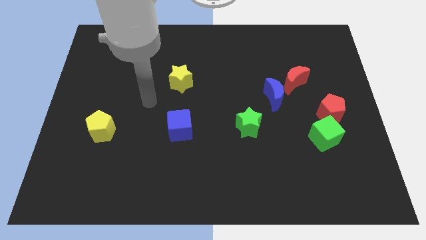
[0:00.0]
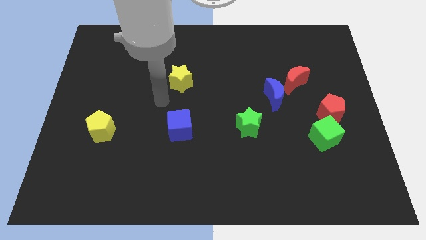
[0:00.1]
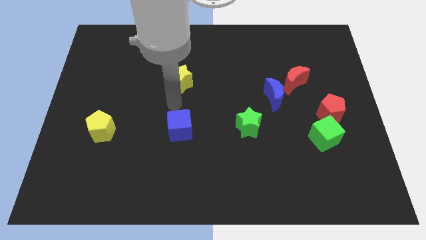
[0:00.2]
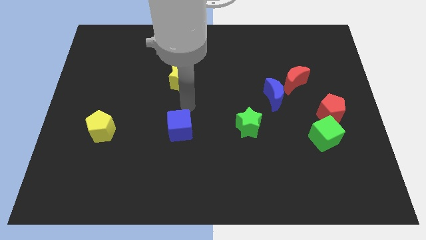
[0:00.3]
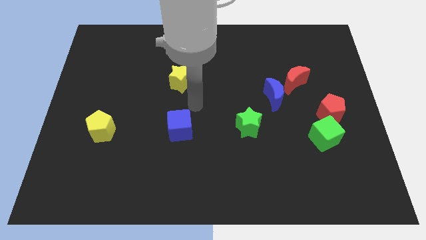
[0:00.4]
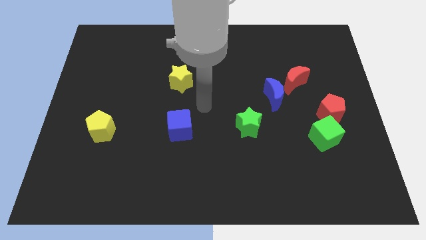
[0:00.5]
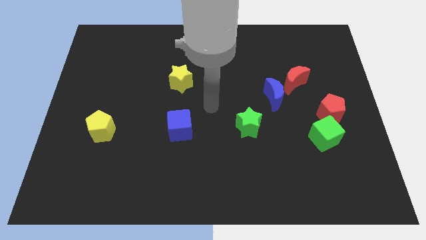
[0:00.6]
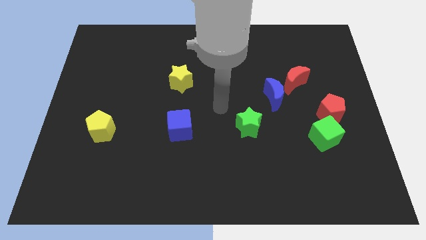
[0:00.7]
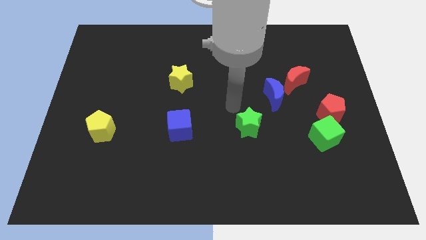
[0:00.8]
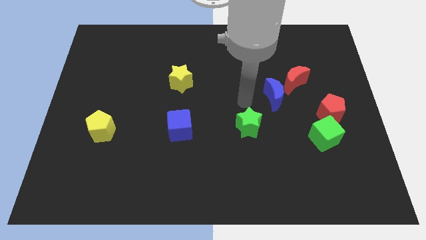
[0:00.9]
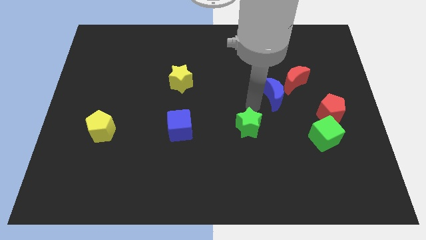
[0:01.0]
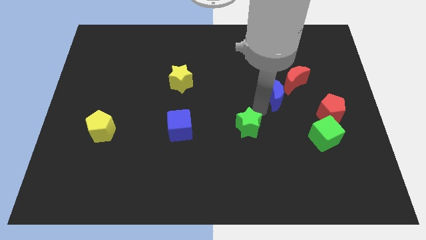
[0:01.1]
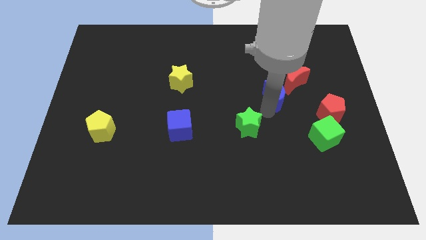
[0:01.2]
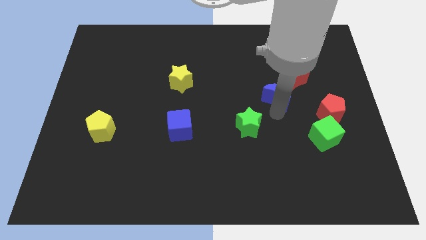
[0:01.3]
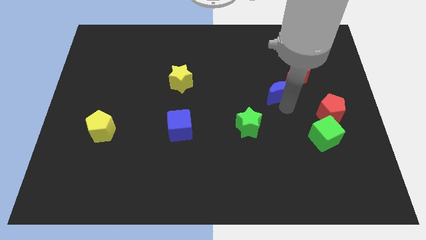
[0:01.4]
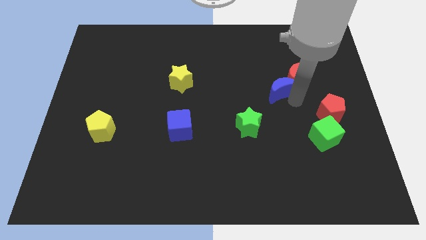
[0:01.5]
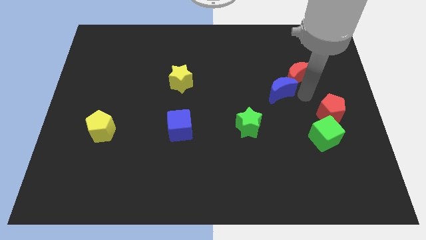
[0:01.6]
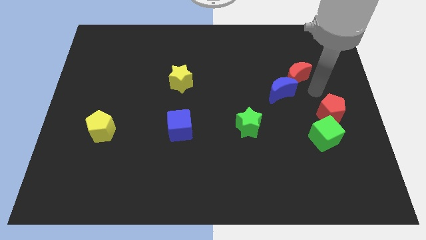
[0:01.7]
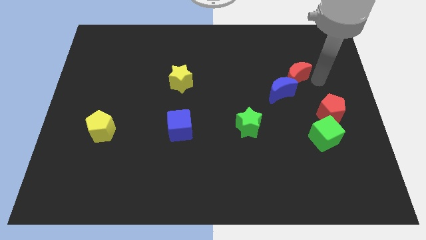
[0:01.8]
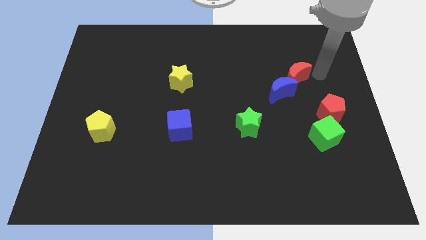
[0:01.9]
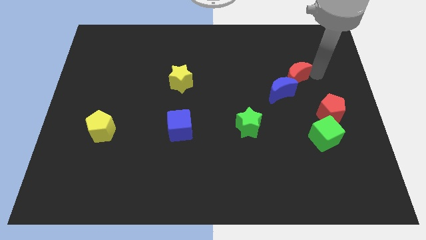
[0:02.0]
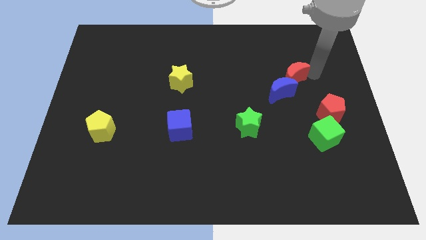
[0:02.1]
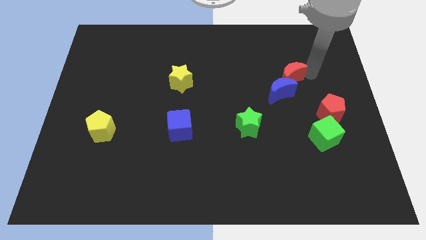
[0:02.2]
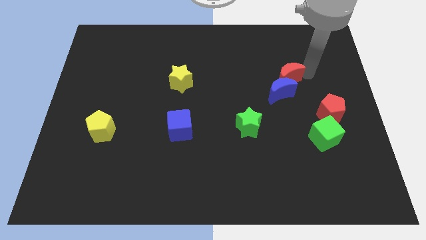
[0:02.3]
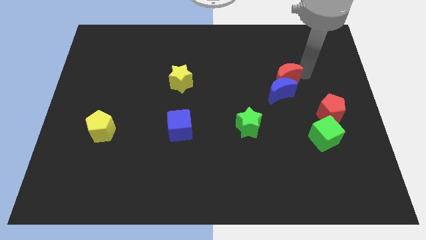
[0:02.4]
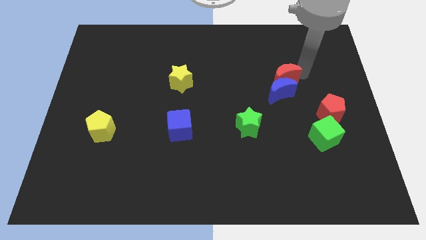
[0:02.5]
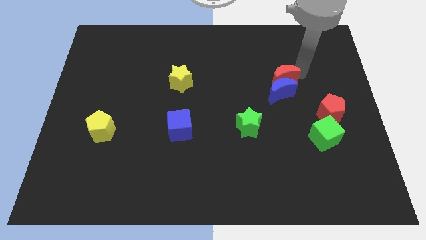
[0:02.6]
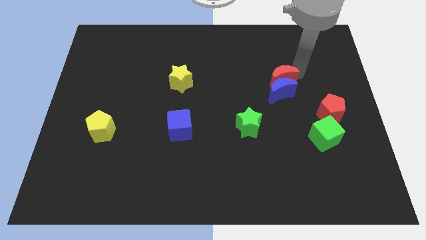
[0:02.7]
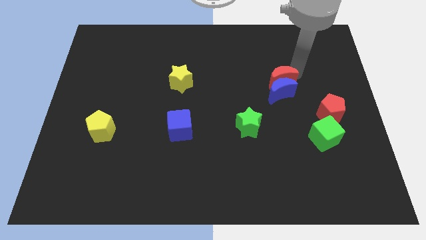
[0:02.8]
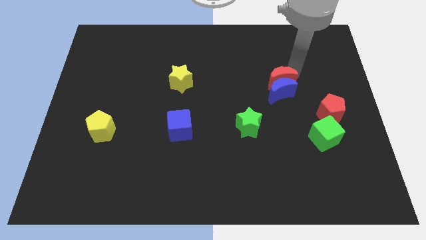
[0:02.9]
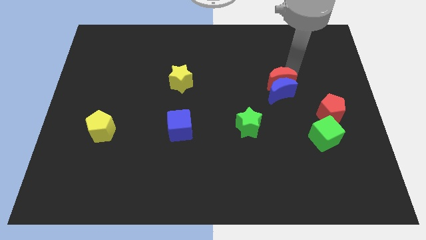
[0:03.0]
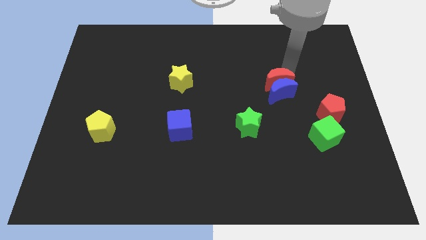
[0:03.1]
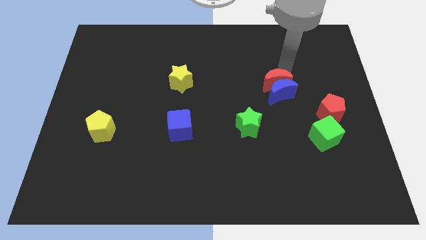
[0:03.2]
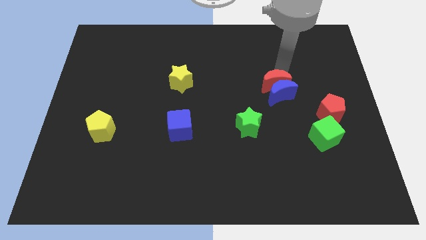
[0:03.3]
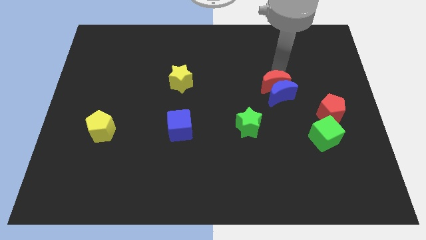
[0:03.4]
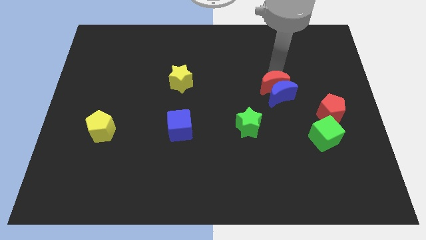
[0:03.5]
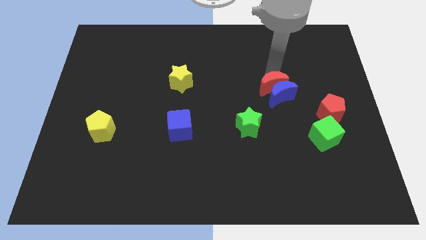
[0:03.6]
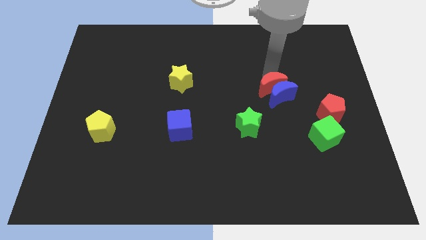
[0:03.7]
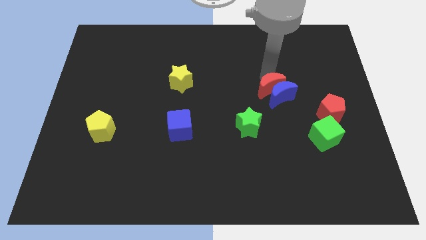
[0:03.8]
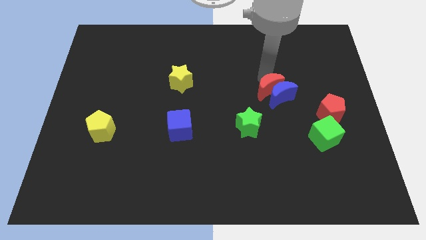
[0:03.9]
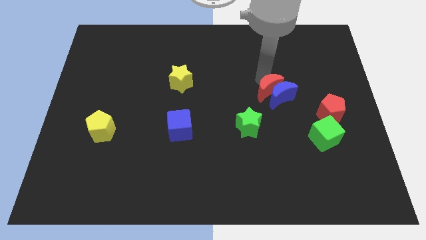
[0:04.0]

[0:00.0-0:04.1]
slightly push the red moon left

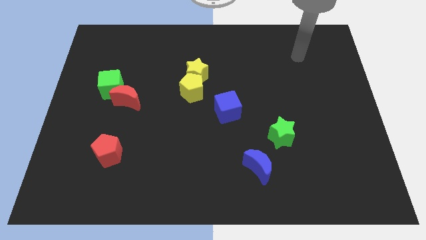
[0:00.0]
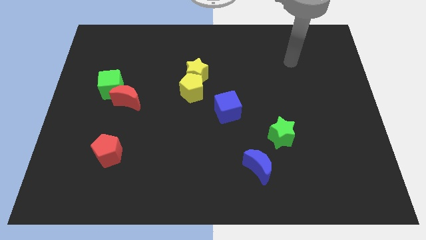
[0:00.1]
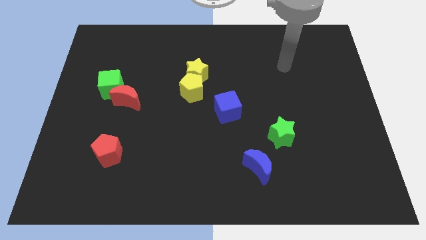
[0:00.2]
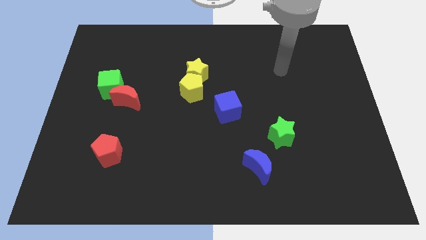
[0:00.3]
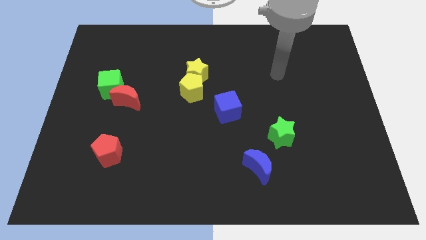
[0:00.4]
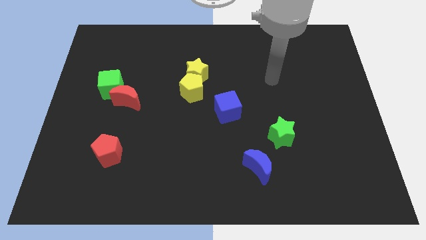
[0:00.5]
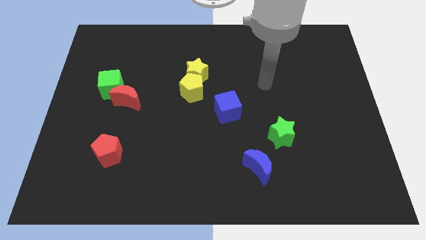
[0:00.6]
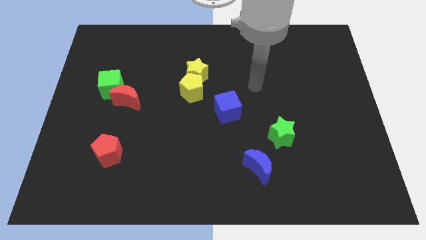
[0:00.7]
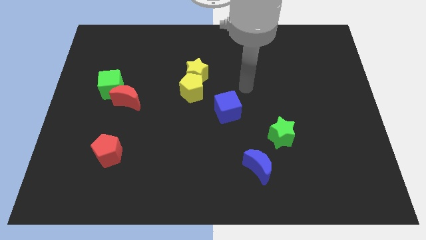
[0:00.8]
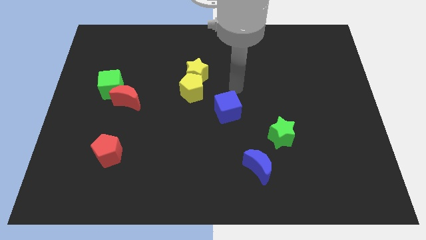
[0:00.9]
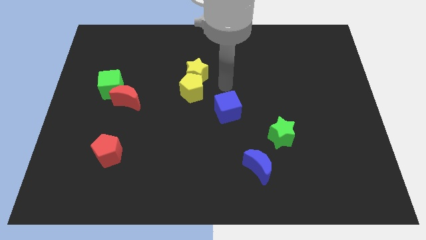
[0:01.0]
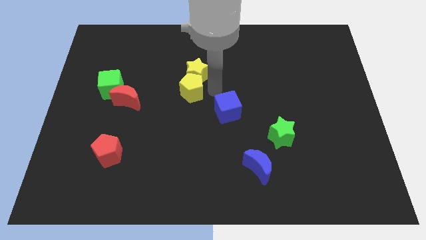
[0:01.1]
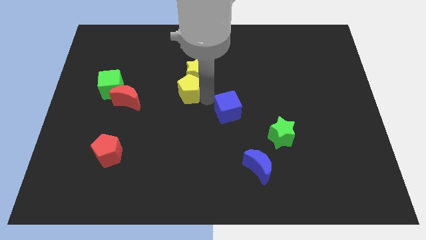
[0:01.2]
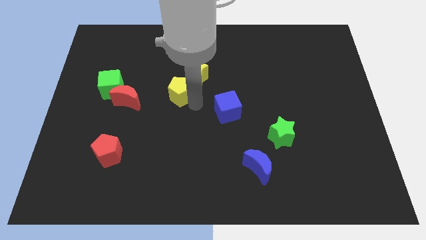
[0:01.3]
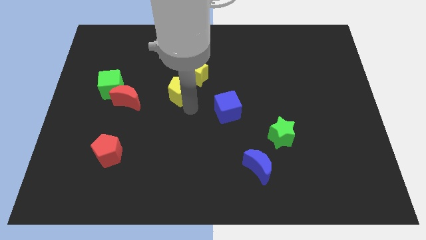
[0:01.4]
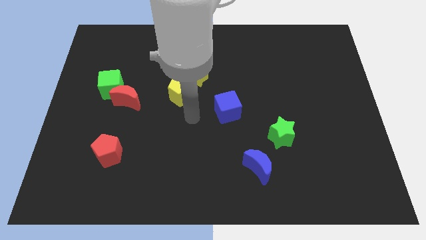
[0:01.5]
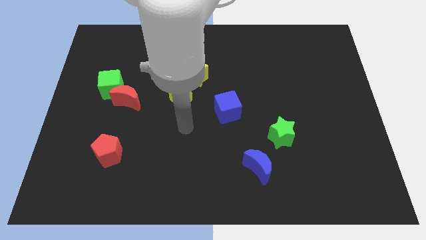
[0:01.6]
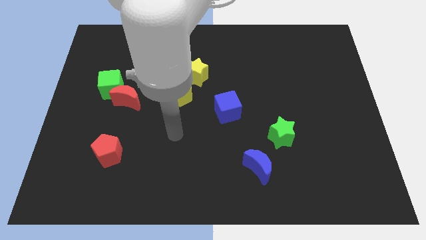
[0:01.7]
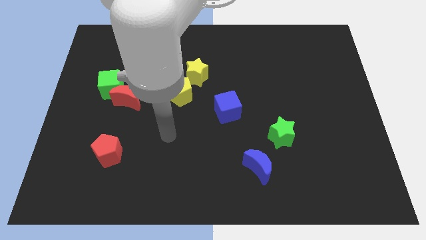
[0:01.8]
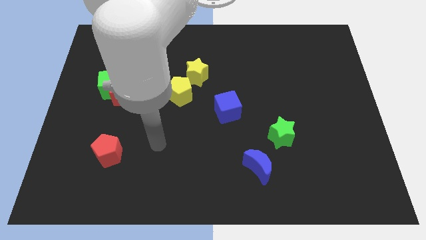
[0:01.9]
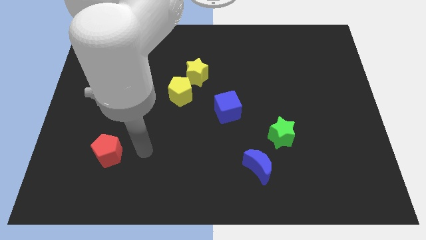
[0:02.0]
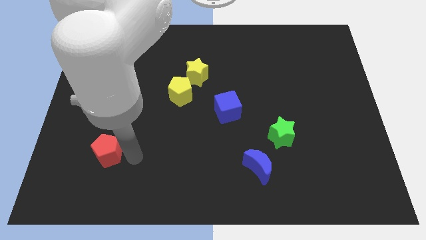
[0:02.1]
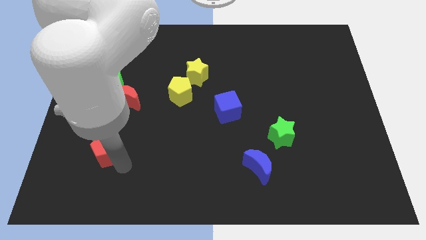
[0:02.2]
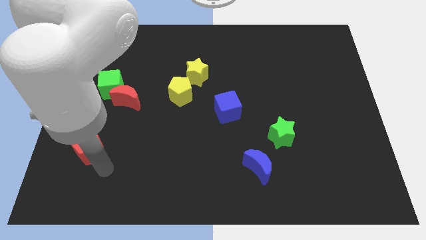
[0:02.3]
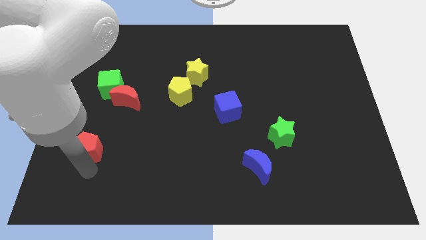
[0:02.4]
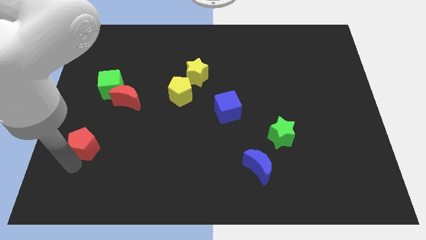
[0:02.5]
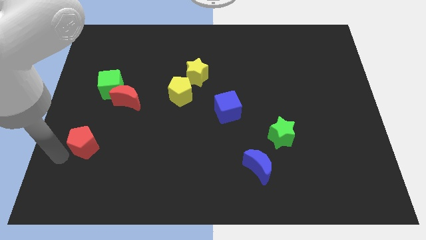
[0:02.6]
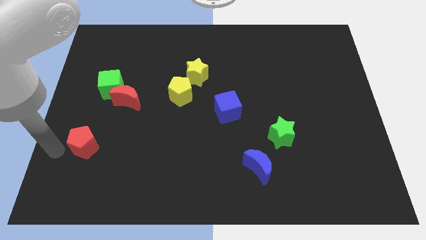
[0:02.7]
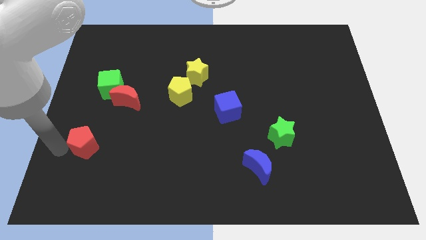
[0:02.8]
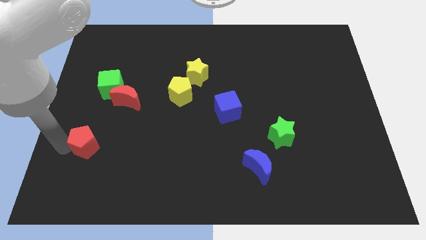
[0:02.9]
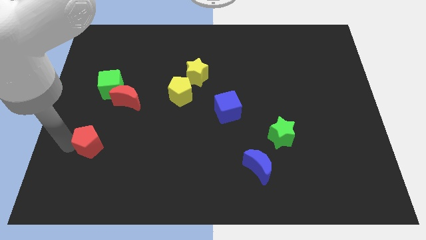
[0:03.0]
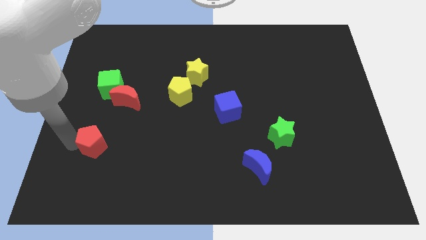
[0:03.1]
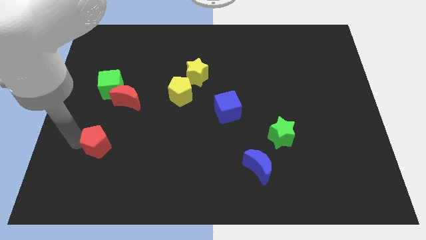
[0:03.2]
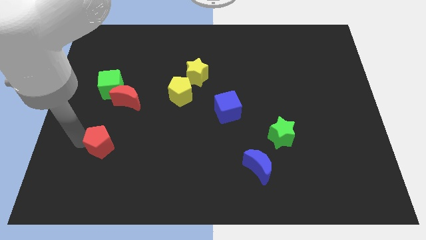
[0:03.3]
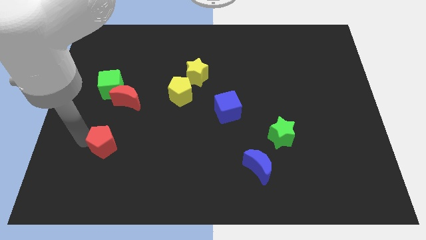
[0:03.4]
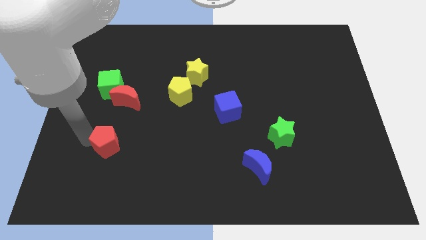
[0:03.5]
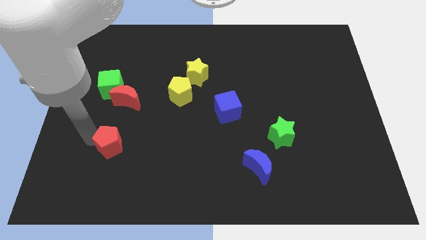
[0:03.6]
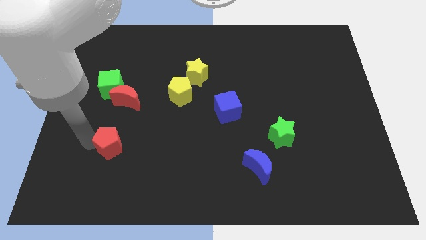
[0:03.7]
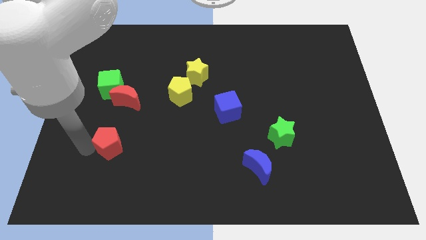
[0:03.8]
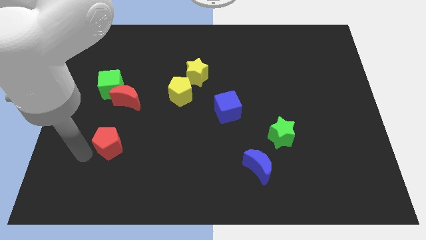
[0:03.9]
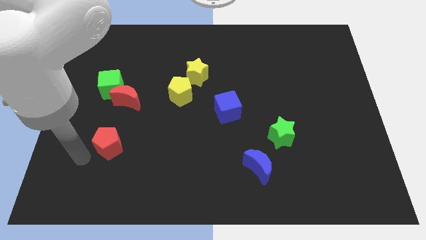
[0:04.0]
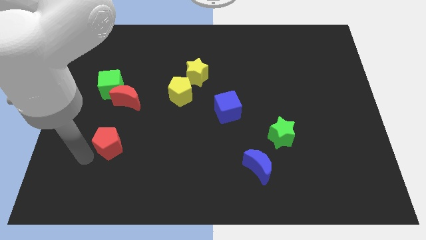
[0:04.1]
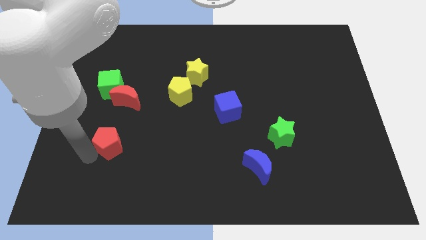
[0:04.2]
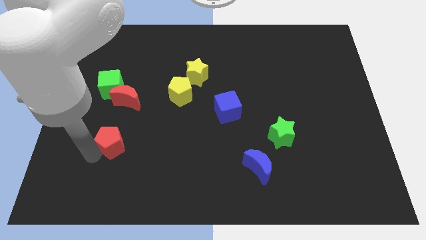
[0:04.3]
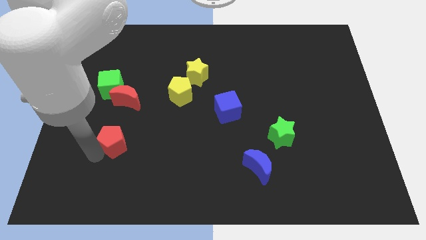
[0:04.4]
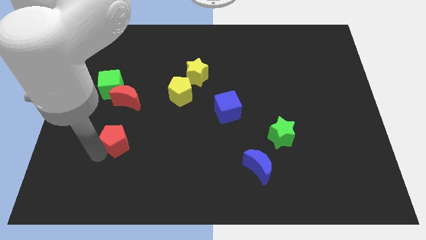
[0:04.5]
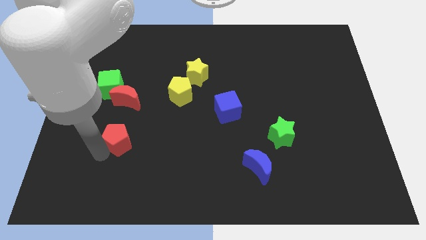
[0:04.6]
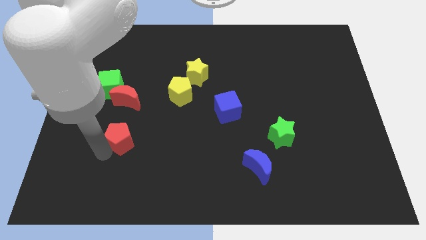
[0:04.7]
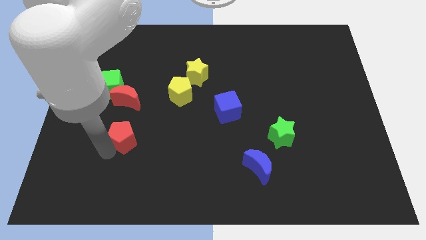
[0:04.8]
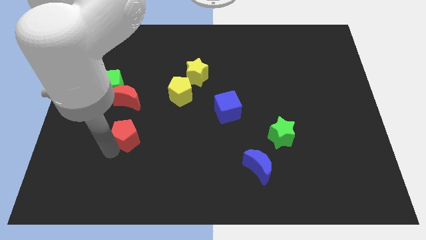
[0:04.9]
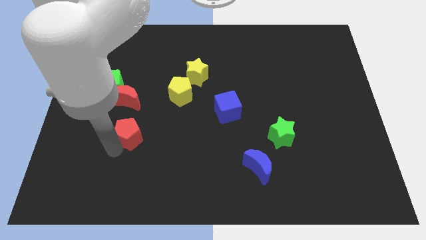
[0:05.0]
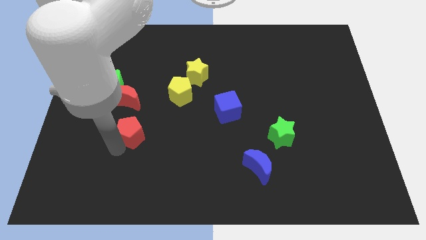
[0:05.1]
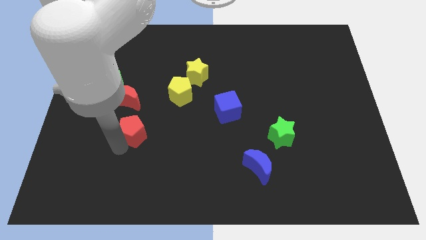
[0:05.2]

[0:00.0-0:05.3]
slide the red pentagon a little bit up and then right
